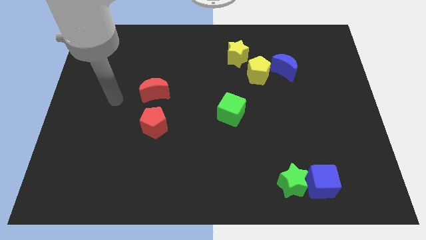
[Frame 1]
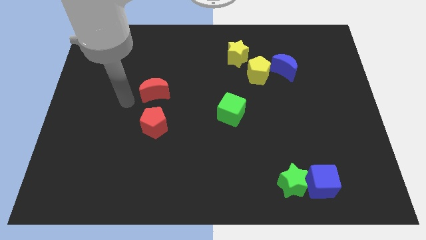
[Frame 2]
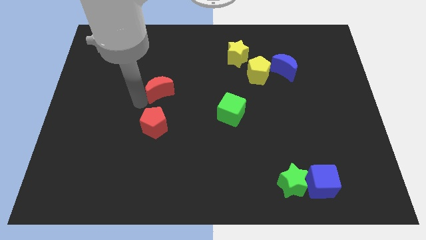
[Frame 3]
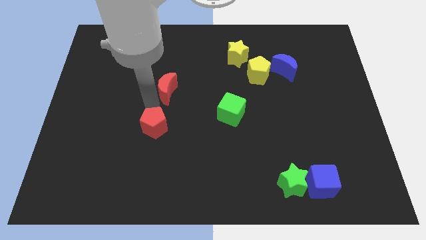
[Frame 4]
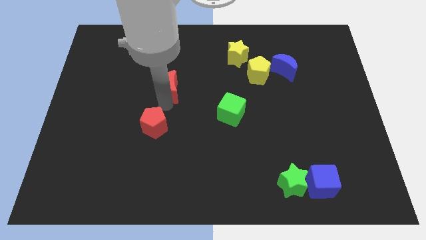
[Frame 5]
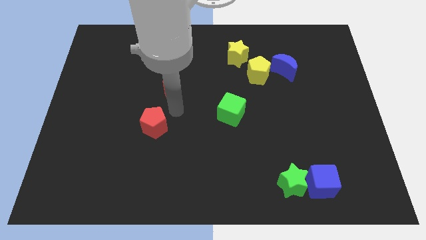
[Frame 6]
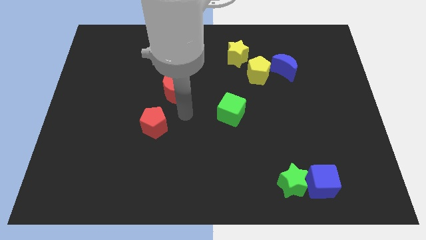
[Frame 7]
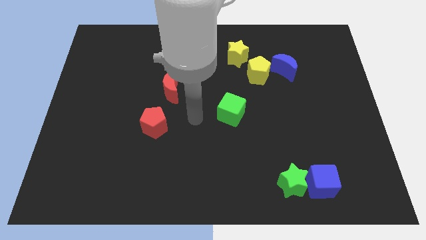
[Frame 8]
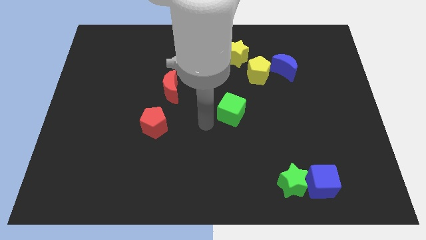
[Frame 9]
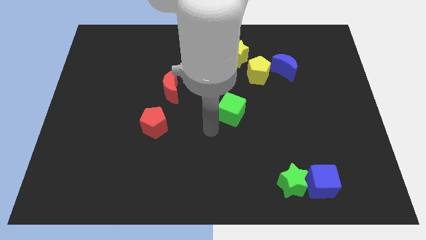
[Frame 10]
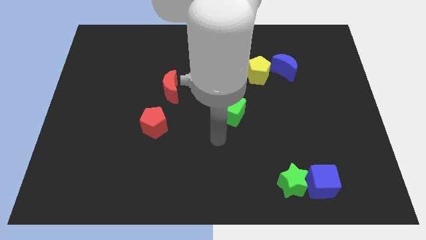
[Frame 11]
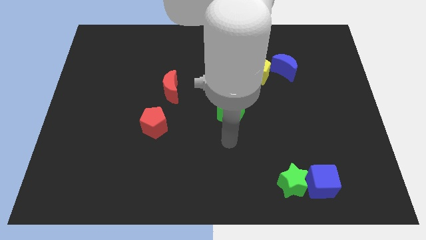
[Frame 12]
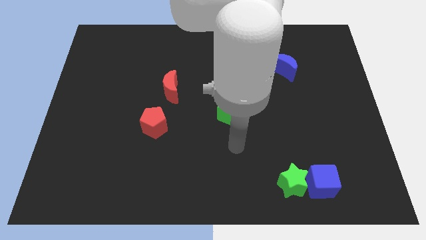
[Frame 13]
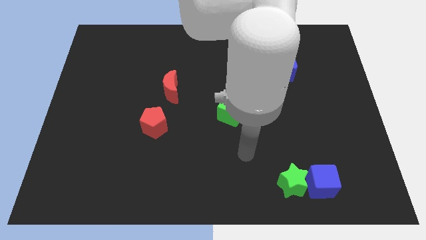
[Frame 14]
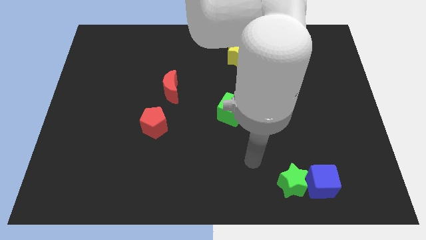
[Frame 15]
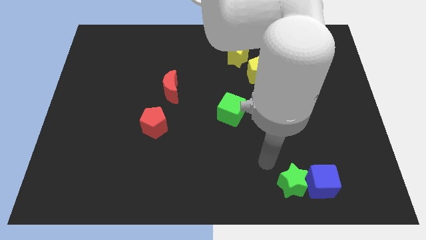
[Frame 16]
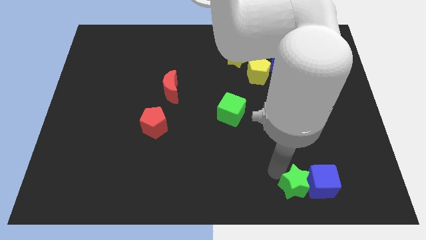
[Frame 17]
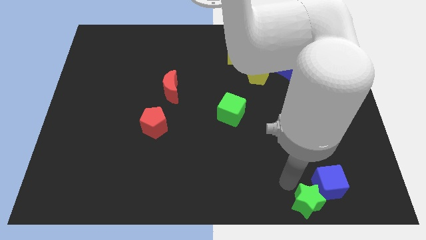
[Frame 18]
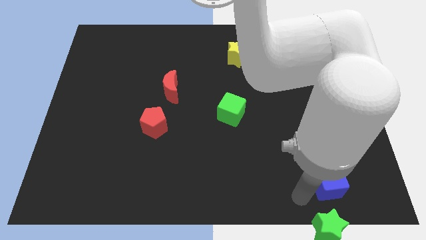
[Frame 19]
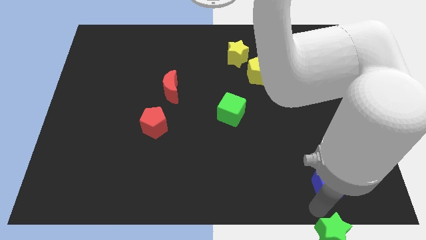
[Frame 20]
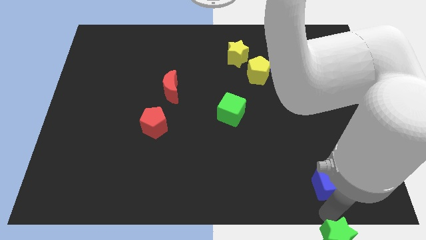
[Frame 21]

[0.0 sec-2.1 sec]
separate the blue cube from the green star

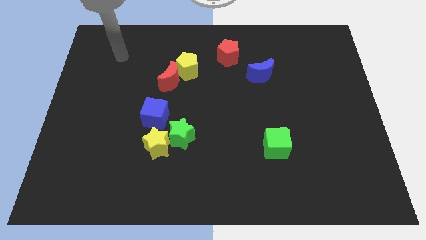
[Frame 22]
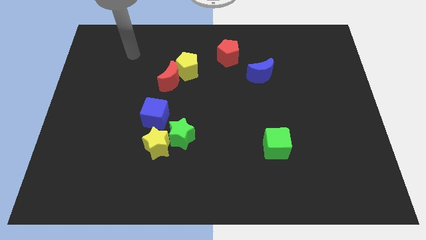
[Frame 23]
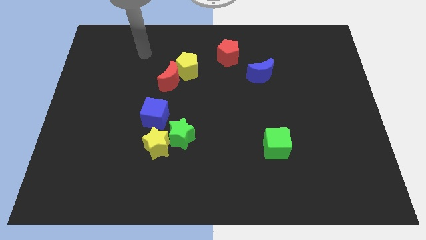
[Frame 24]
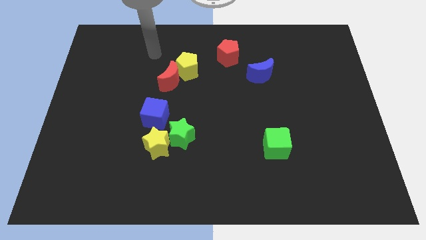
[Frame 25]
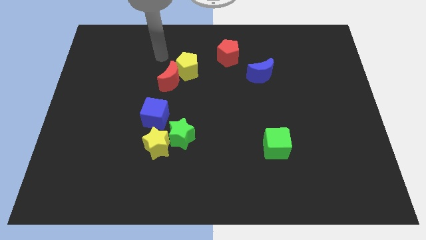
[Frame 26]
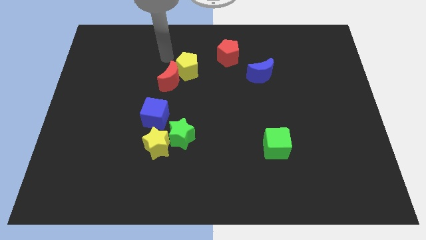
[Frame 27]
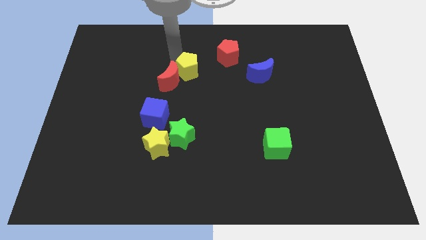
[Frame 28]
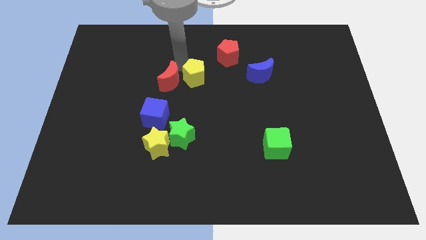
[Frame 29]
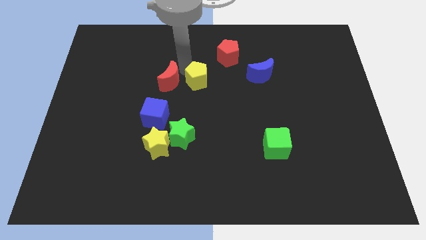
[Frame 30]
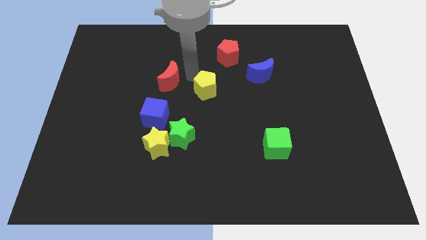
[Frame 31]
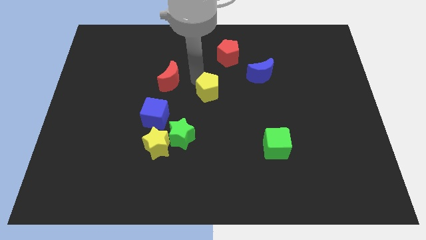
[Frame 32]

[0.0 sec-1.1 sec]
move the red moon away from the yellow pentagon

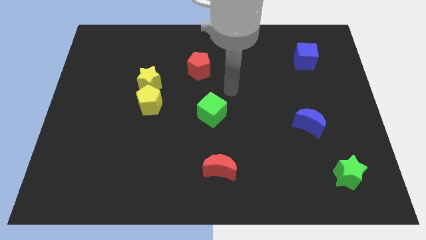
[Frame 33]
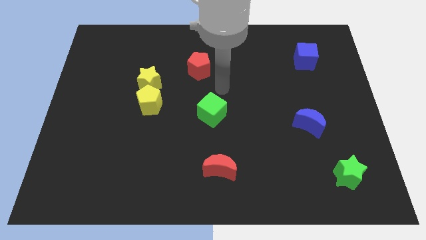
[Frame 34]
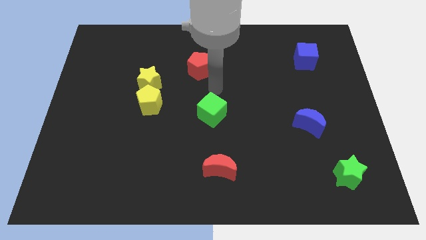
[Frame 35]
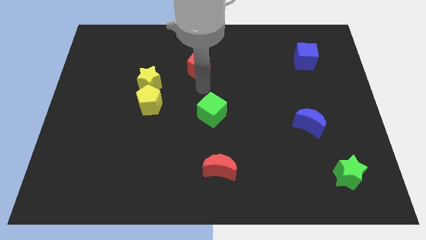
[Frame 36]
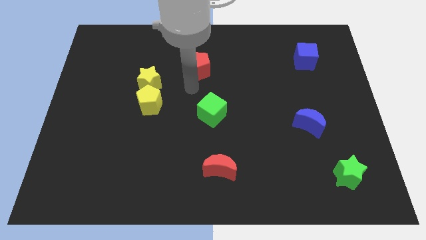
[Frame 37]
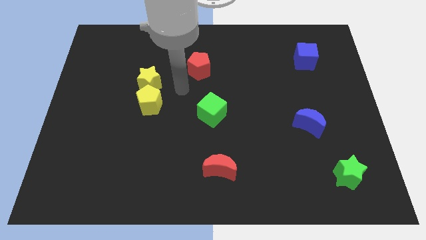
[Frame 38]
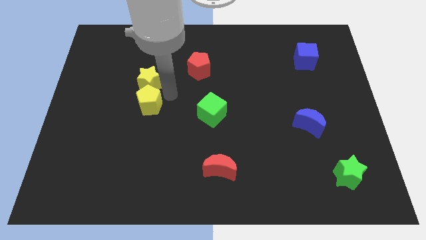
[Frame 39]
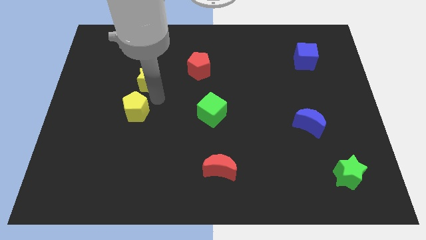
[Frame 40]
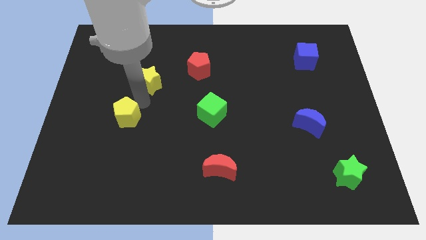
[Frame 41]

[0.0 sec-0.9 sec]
move the yellow star away from the yellow pentagon

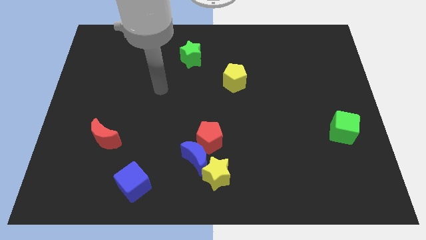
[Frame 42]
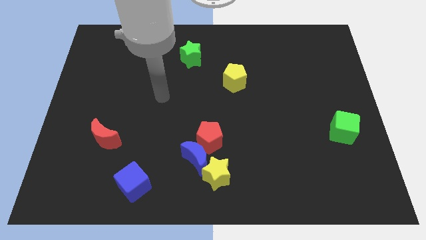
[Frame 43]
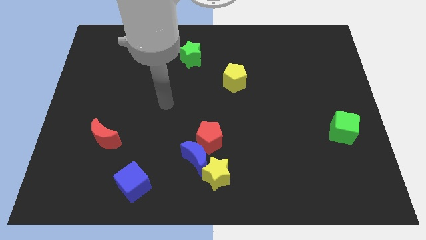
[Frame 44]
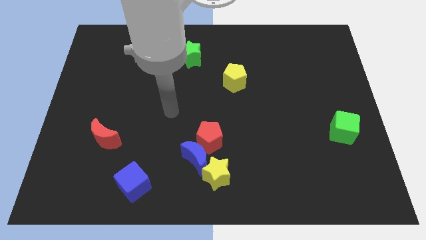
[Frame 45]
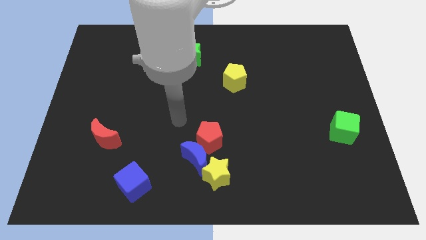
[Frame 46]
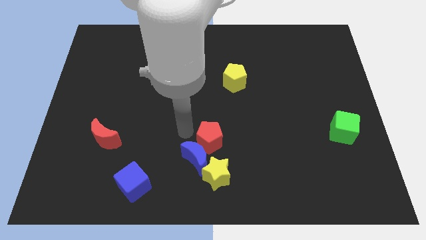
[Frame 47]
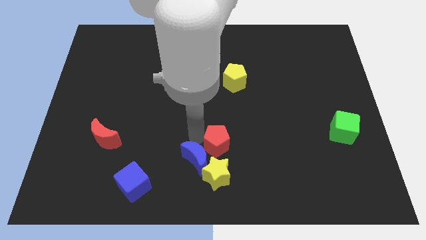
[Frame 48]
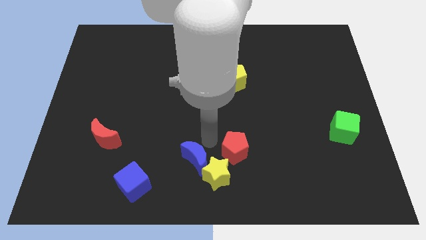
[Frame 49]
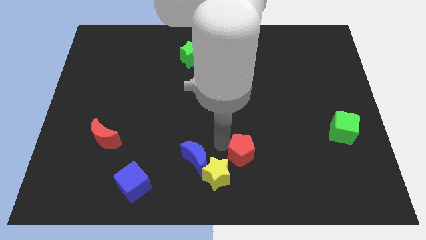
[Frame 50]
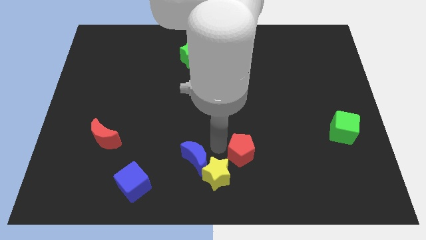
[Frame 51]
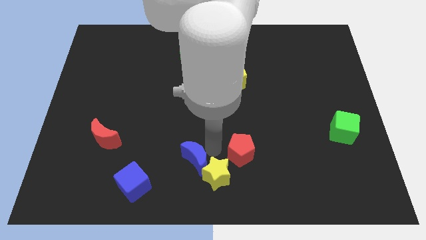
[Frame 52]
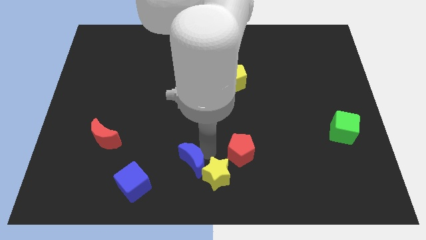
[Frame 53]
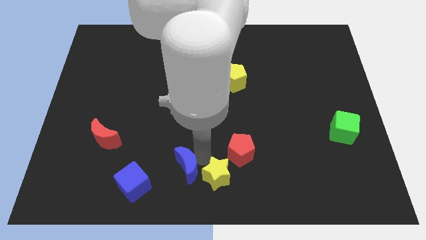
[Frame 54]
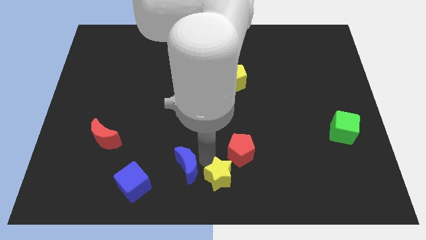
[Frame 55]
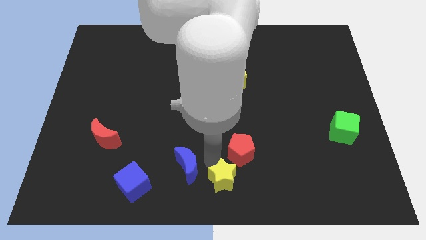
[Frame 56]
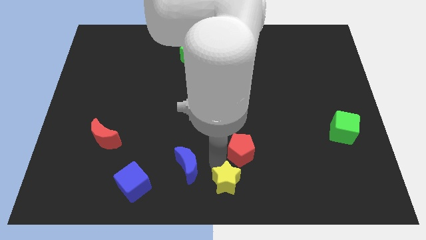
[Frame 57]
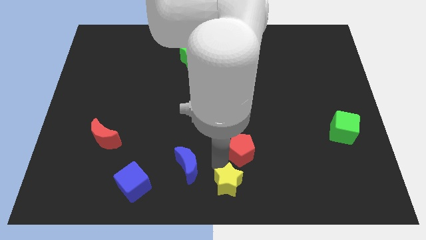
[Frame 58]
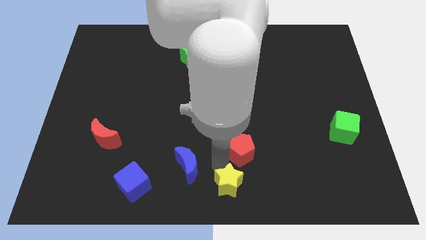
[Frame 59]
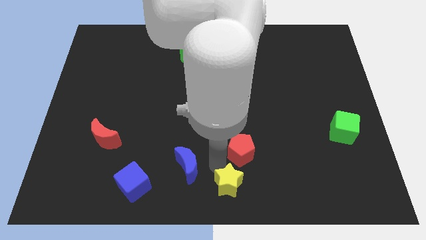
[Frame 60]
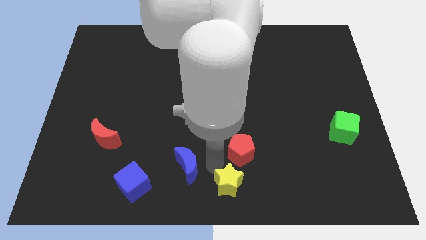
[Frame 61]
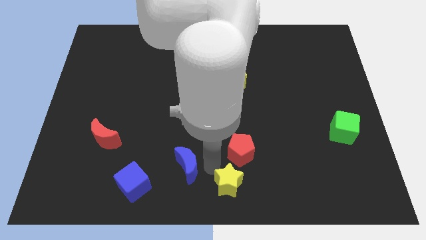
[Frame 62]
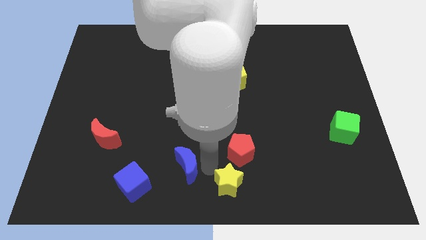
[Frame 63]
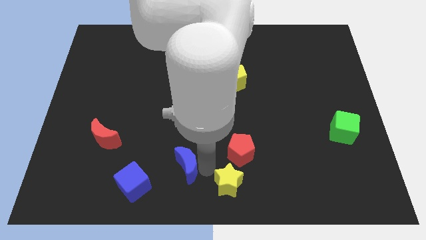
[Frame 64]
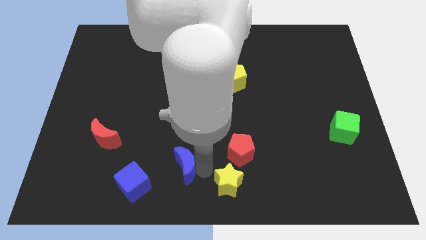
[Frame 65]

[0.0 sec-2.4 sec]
pull the blue moon apart from the yellow star and red pentagon

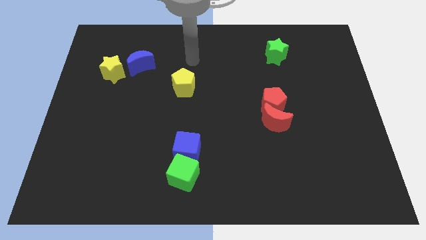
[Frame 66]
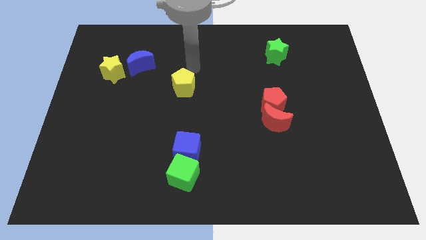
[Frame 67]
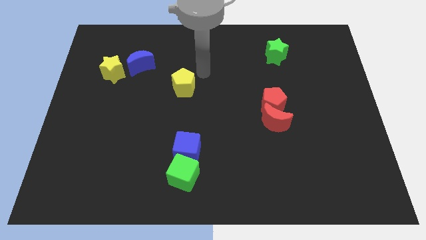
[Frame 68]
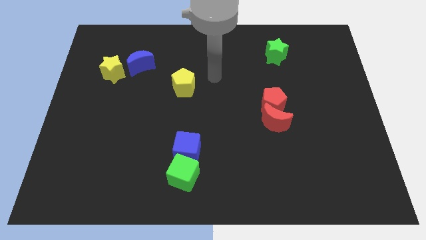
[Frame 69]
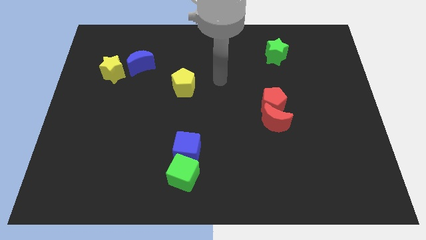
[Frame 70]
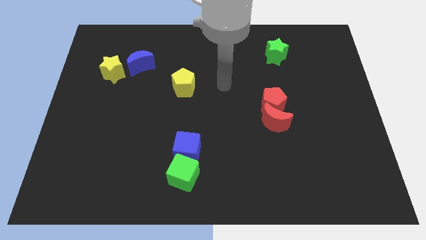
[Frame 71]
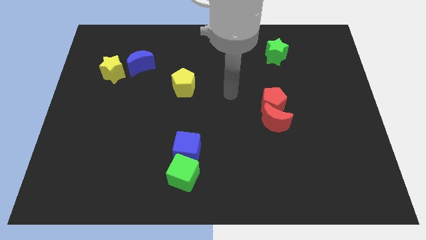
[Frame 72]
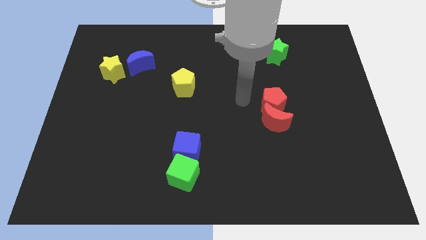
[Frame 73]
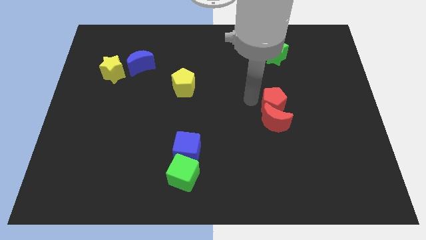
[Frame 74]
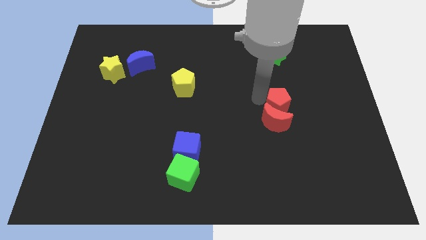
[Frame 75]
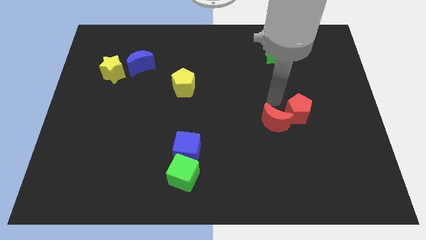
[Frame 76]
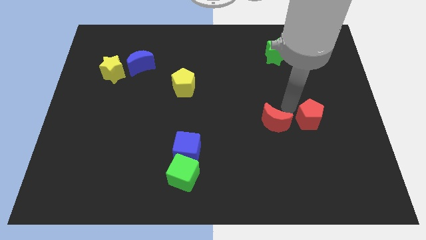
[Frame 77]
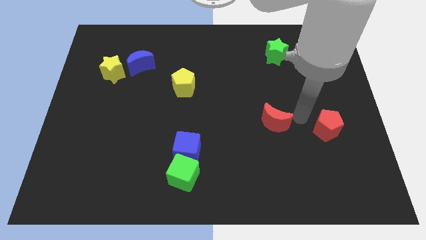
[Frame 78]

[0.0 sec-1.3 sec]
separate the red moon from the red pentagon

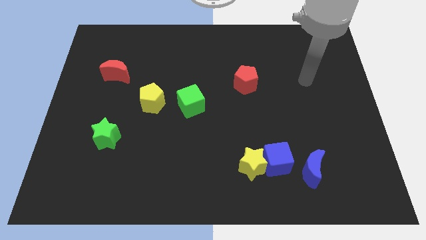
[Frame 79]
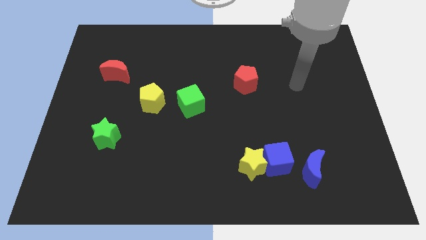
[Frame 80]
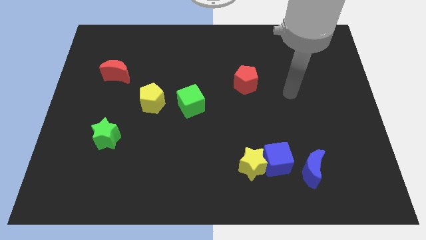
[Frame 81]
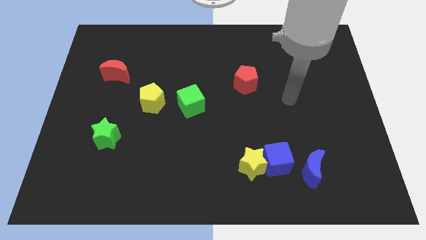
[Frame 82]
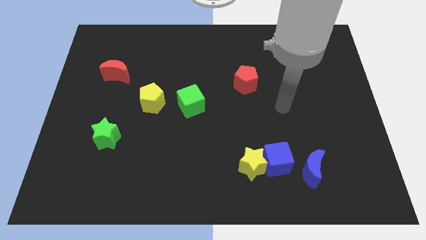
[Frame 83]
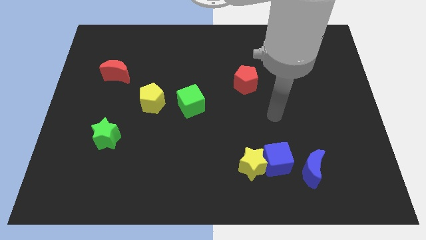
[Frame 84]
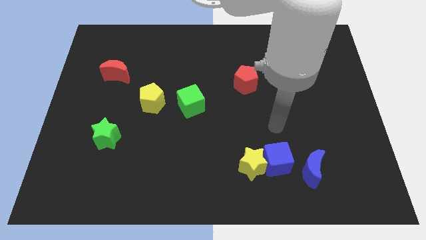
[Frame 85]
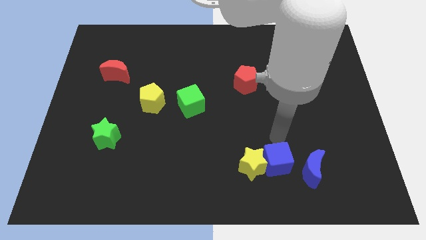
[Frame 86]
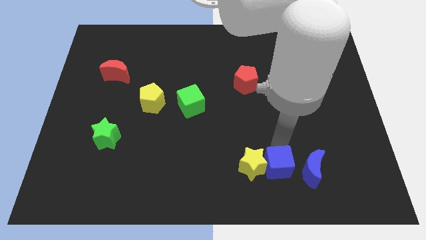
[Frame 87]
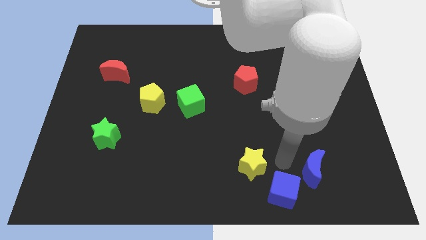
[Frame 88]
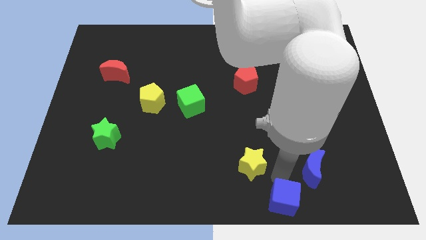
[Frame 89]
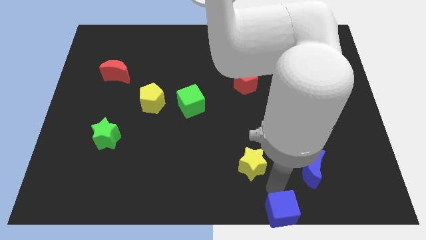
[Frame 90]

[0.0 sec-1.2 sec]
separate the yellow star from the blue cube

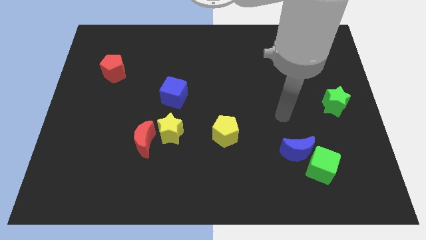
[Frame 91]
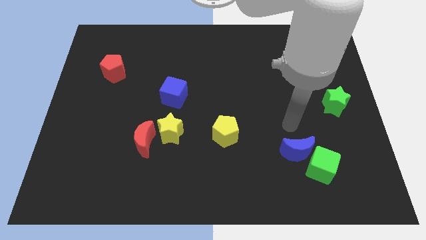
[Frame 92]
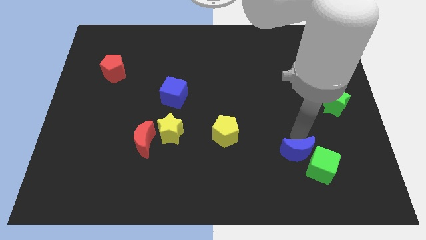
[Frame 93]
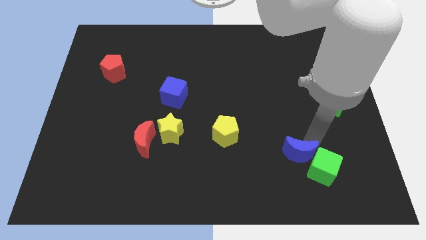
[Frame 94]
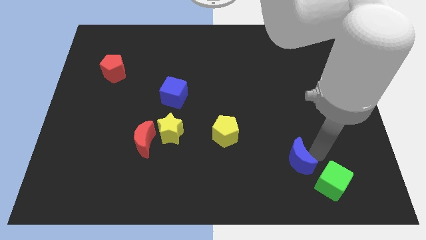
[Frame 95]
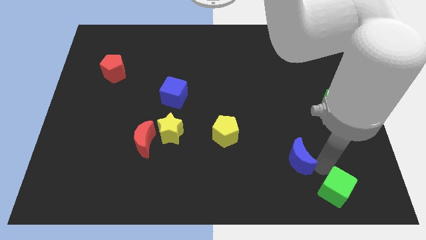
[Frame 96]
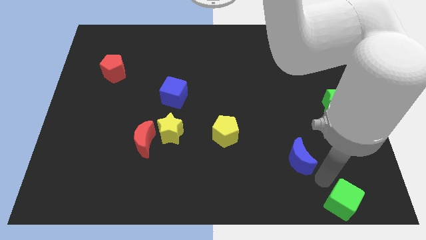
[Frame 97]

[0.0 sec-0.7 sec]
pull the blue moon apart from the green cube
